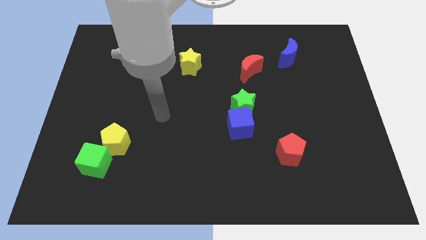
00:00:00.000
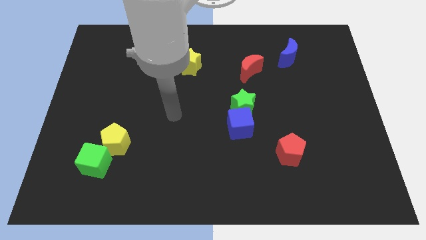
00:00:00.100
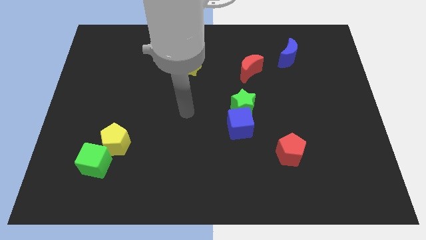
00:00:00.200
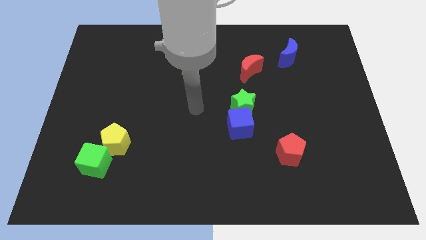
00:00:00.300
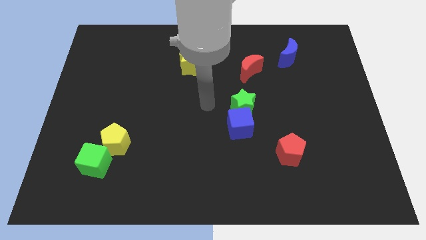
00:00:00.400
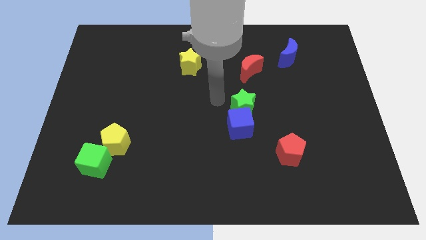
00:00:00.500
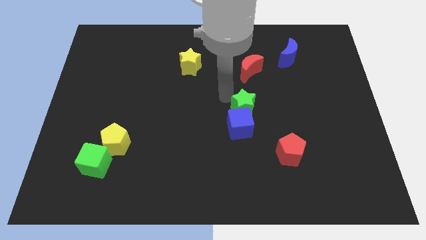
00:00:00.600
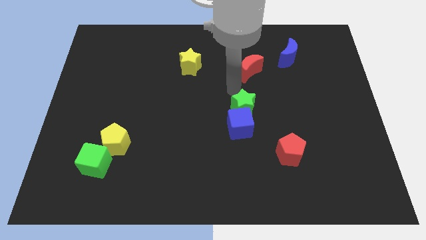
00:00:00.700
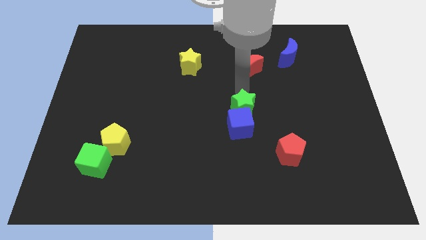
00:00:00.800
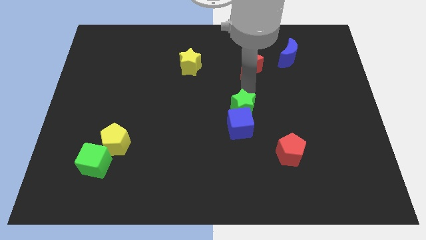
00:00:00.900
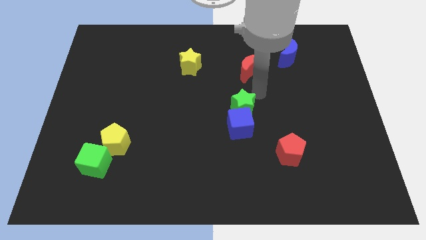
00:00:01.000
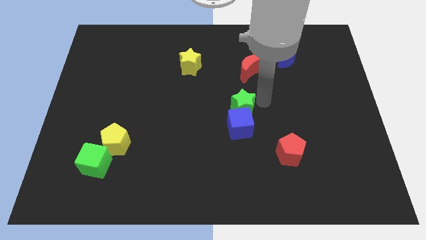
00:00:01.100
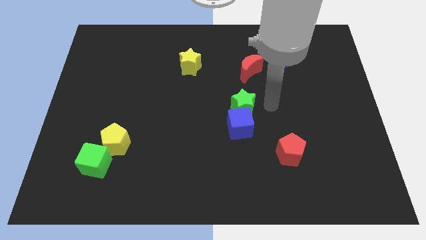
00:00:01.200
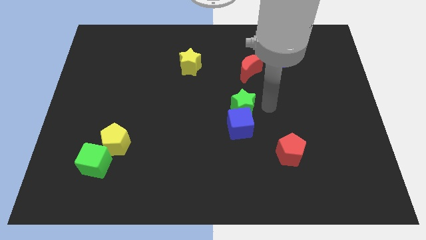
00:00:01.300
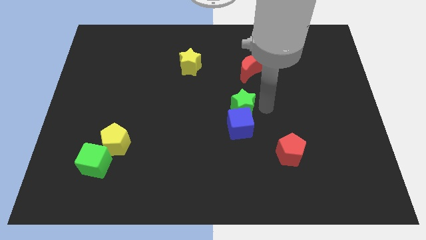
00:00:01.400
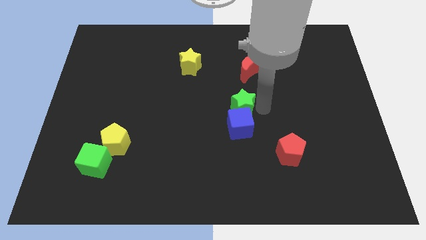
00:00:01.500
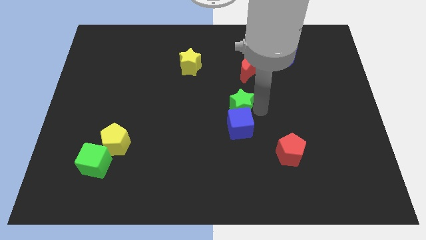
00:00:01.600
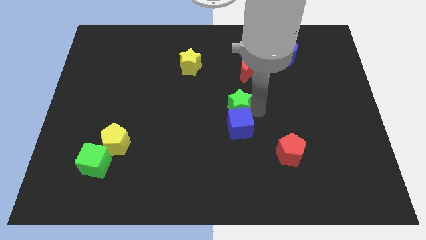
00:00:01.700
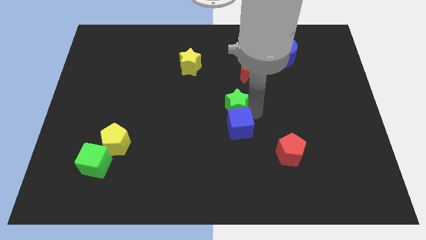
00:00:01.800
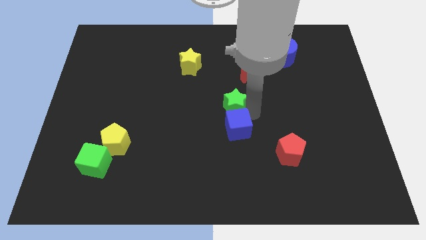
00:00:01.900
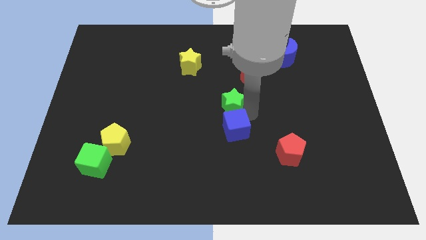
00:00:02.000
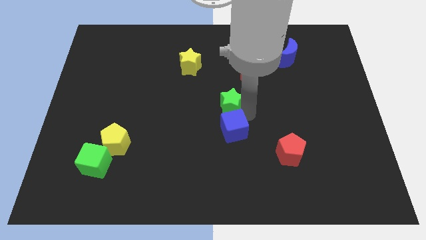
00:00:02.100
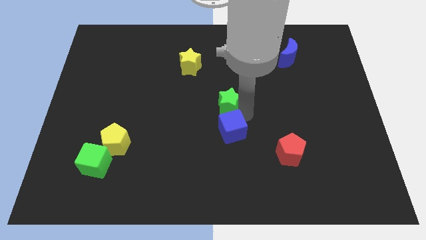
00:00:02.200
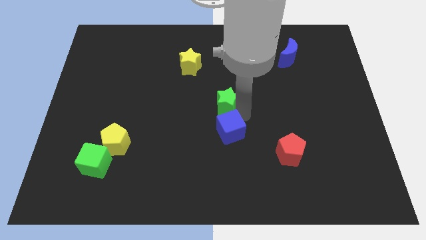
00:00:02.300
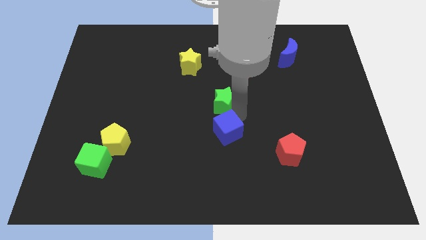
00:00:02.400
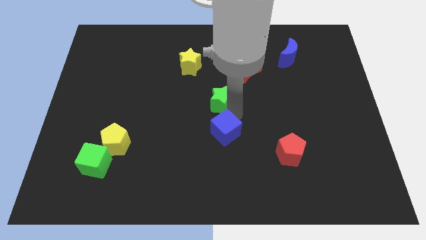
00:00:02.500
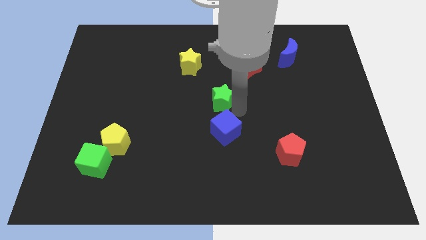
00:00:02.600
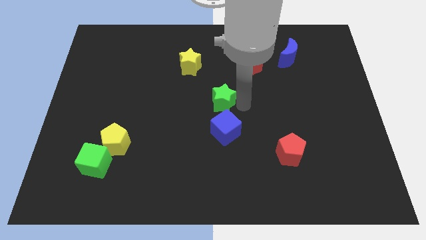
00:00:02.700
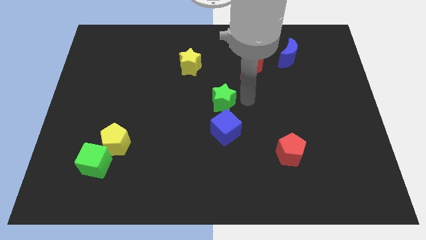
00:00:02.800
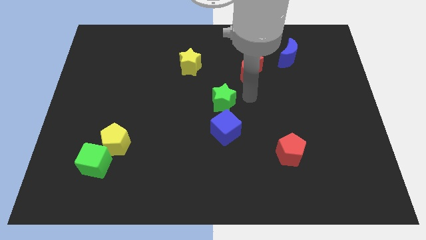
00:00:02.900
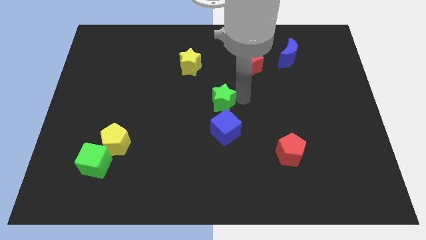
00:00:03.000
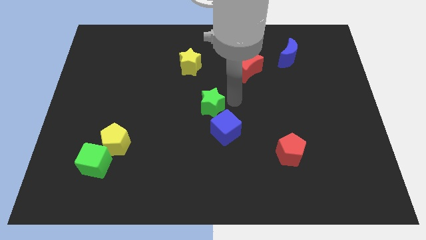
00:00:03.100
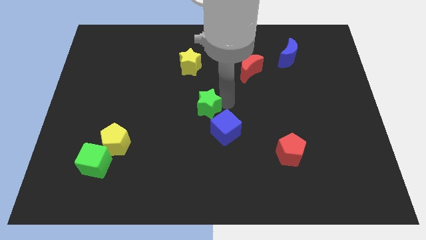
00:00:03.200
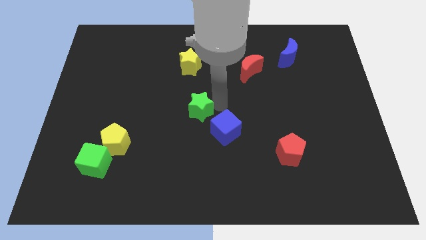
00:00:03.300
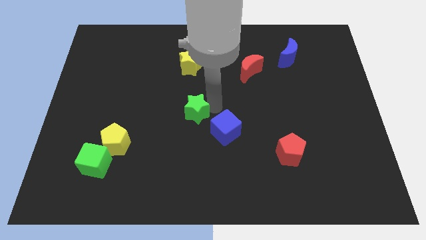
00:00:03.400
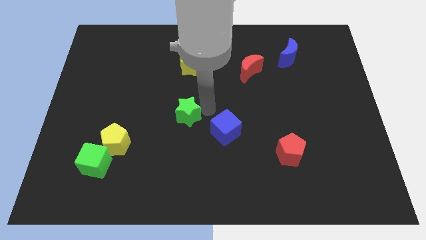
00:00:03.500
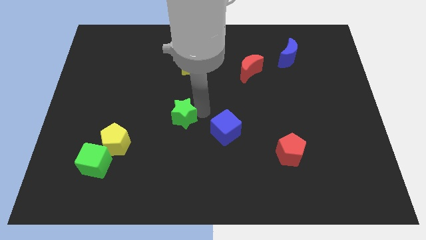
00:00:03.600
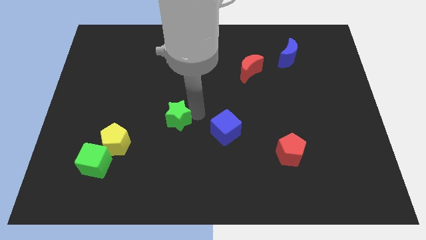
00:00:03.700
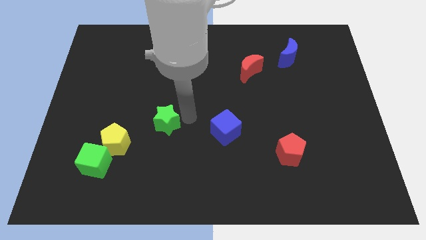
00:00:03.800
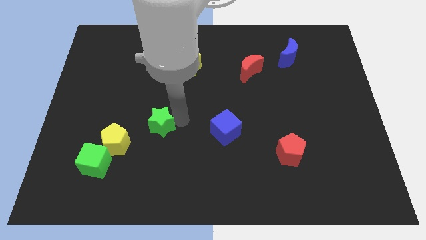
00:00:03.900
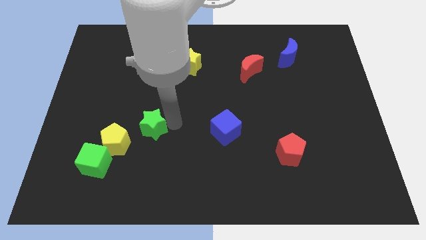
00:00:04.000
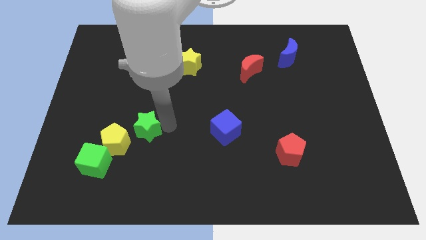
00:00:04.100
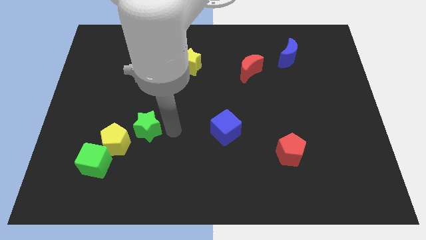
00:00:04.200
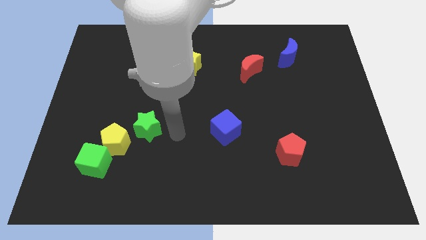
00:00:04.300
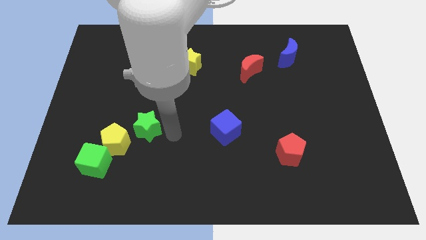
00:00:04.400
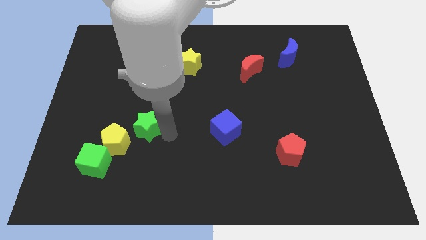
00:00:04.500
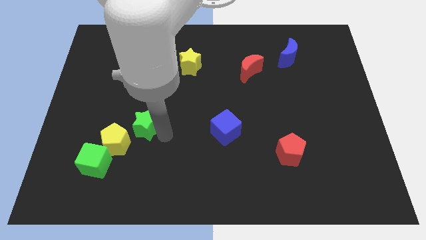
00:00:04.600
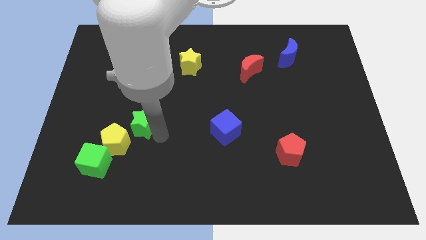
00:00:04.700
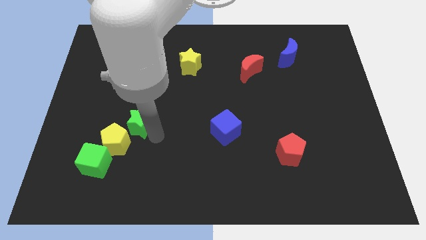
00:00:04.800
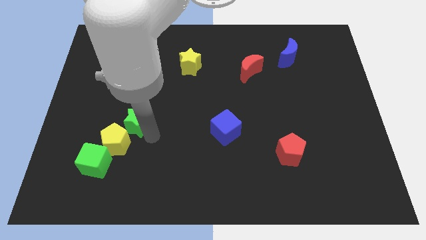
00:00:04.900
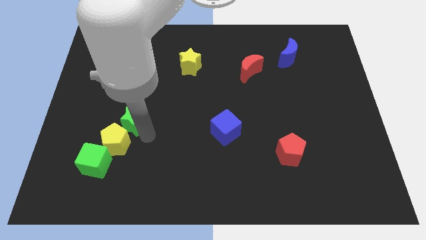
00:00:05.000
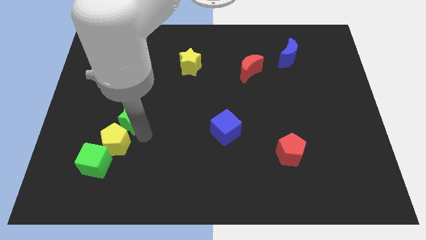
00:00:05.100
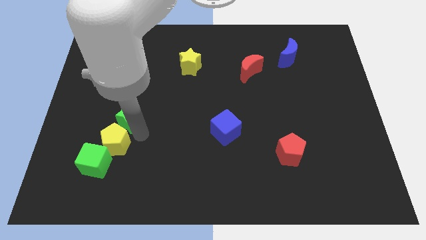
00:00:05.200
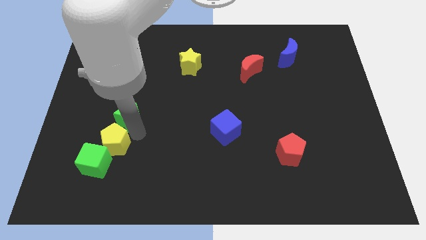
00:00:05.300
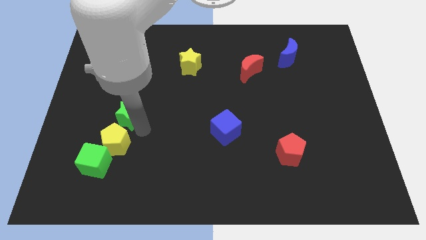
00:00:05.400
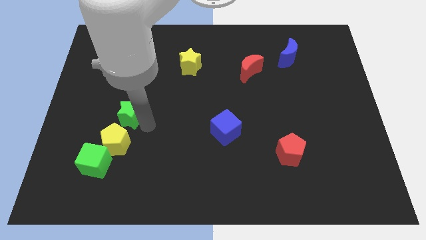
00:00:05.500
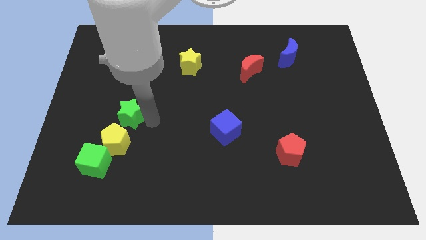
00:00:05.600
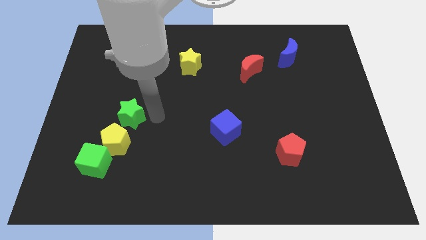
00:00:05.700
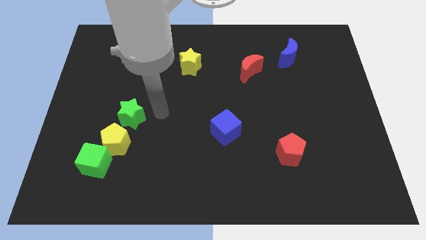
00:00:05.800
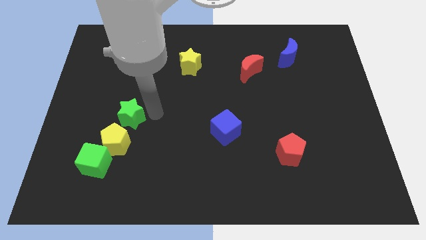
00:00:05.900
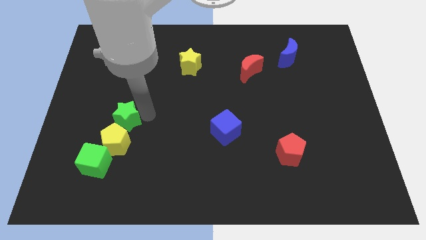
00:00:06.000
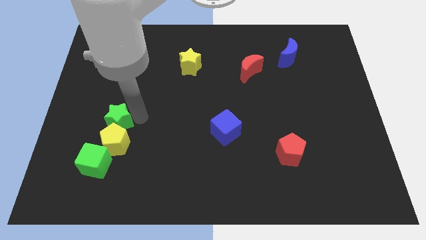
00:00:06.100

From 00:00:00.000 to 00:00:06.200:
move the green star to the top side of the green cube
